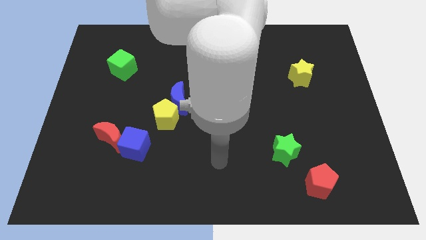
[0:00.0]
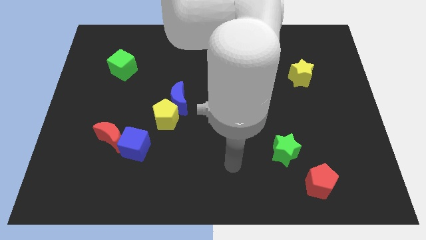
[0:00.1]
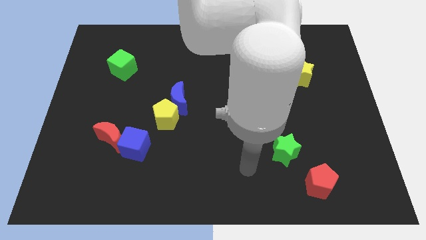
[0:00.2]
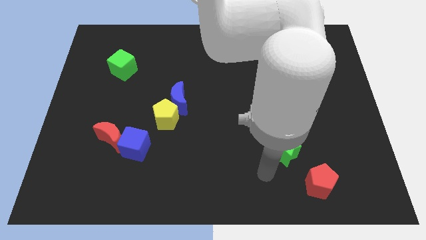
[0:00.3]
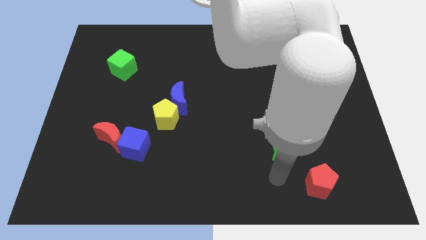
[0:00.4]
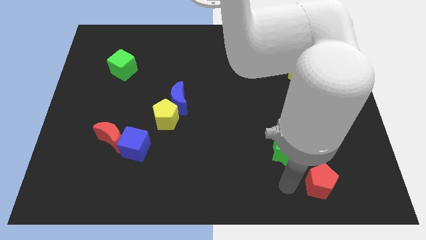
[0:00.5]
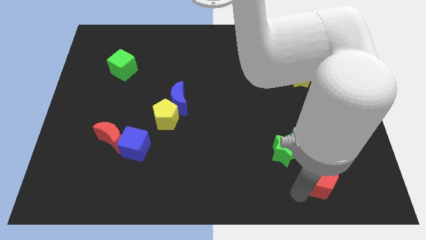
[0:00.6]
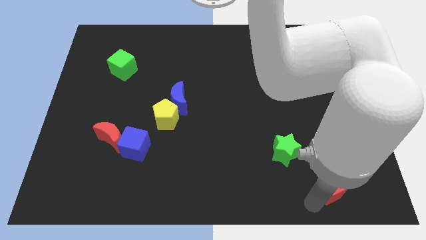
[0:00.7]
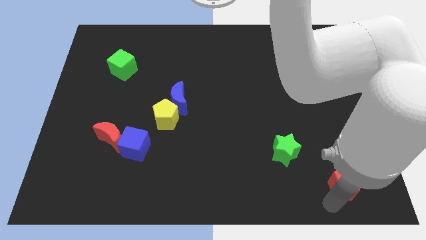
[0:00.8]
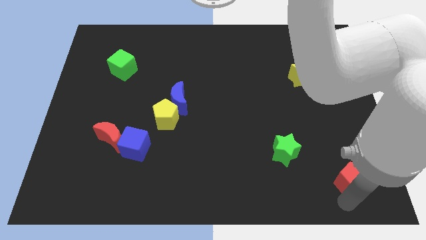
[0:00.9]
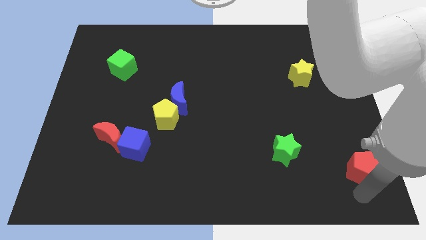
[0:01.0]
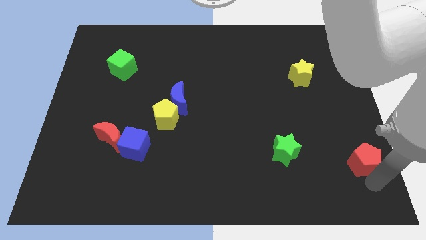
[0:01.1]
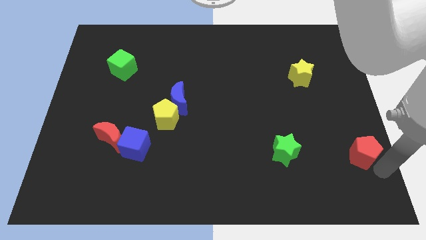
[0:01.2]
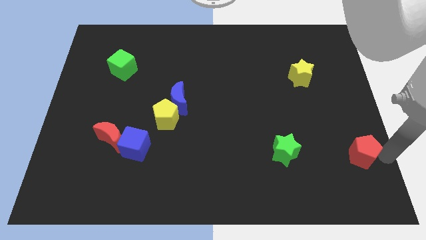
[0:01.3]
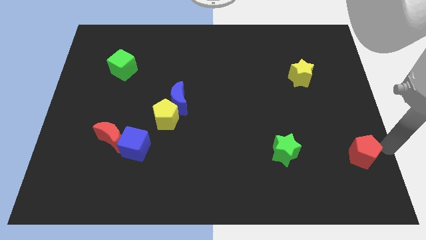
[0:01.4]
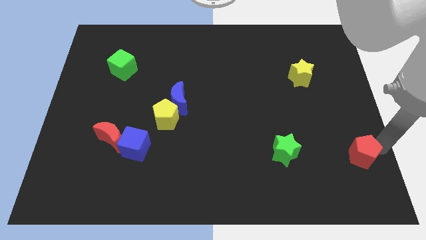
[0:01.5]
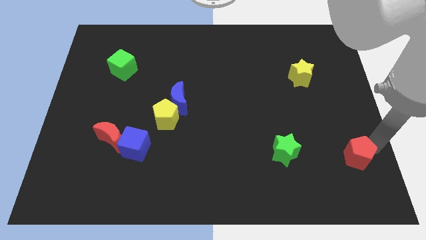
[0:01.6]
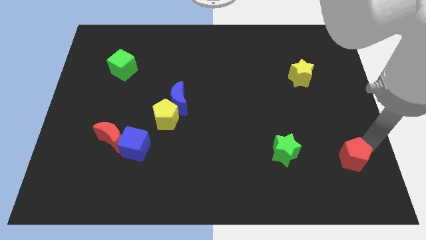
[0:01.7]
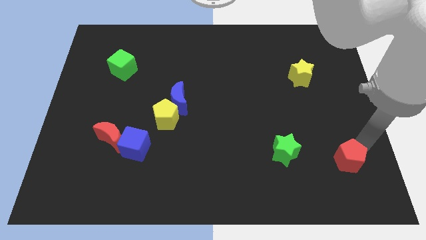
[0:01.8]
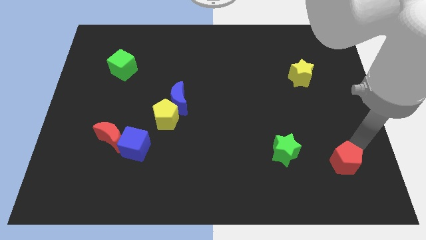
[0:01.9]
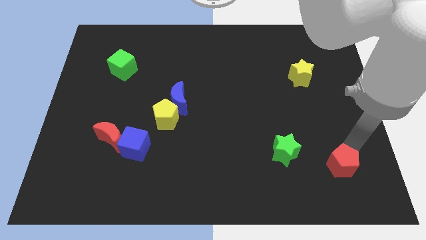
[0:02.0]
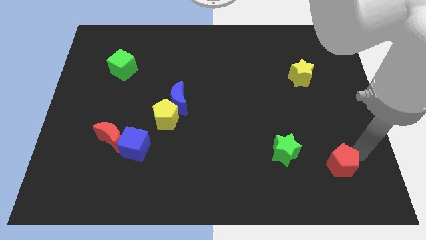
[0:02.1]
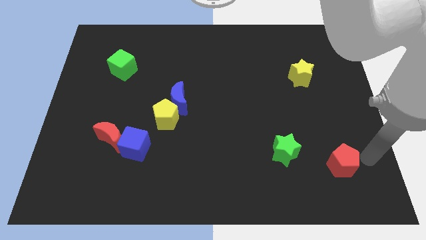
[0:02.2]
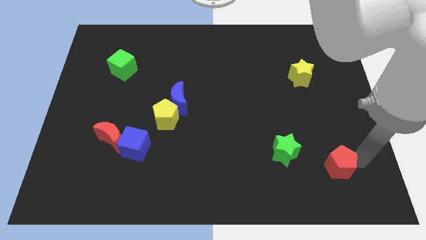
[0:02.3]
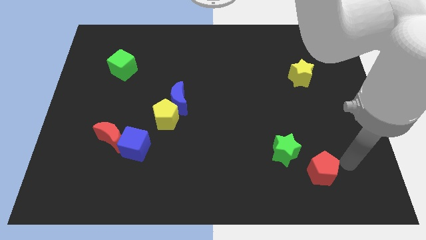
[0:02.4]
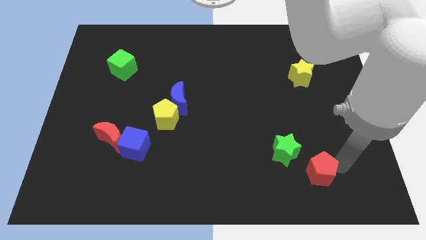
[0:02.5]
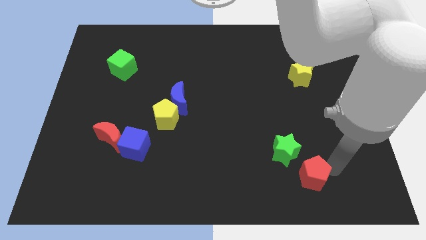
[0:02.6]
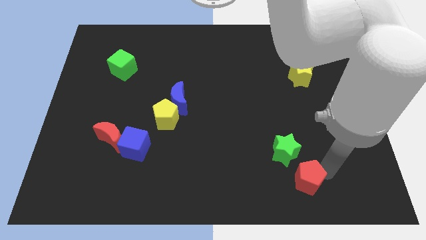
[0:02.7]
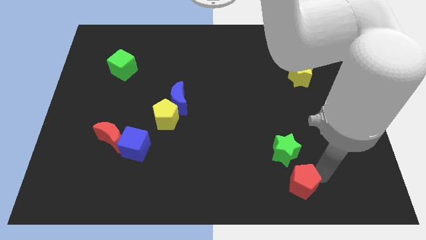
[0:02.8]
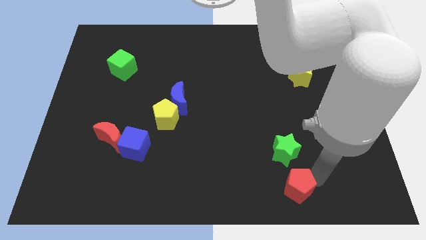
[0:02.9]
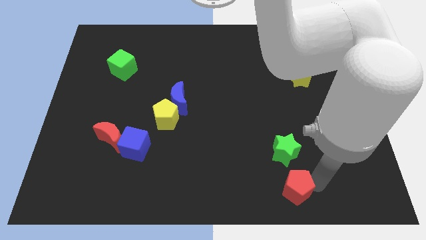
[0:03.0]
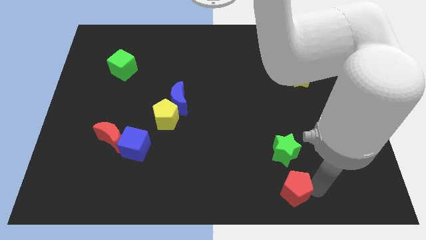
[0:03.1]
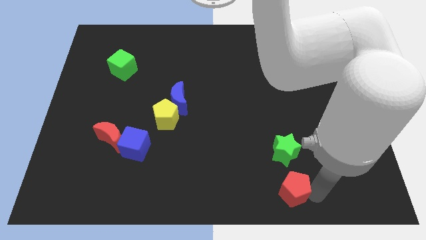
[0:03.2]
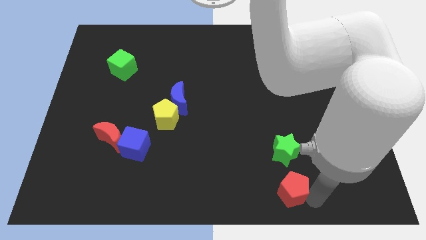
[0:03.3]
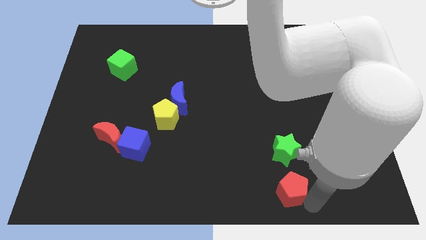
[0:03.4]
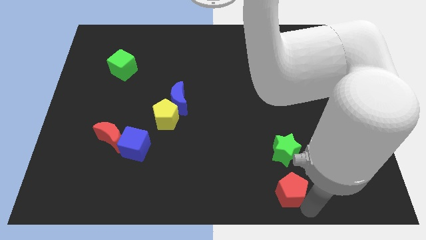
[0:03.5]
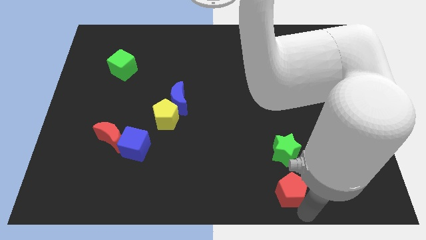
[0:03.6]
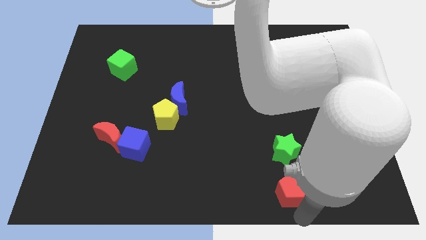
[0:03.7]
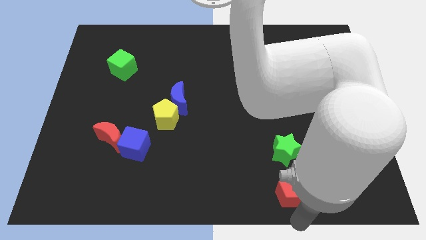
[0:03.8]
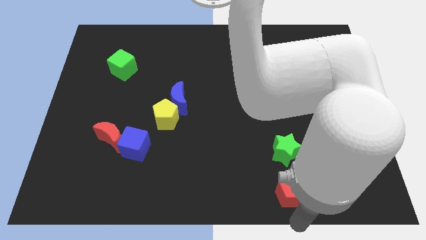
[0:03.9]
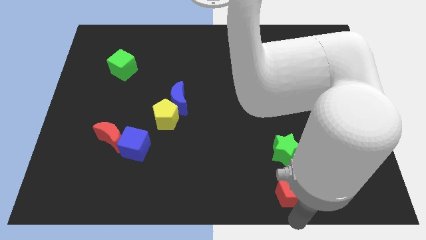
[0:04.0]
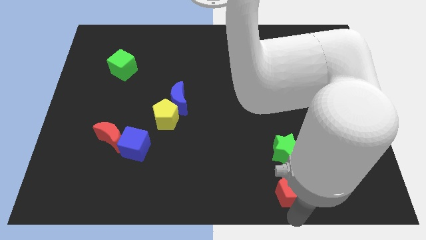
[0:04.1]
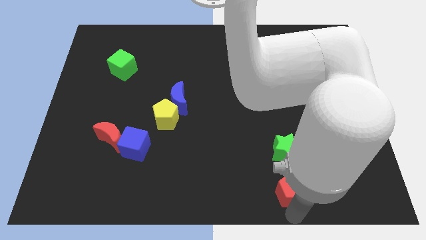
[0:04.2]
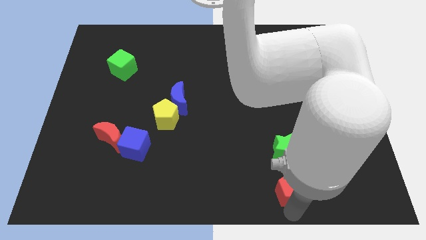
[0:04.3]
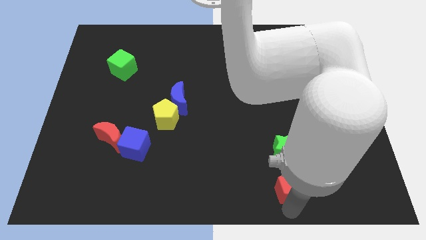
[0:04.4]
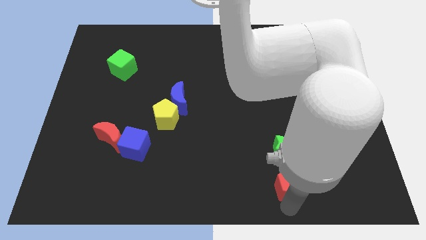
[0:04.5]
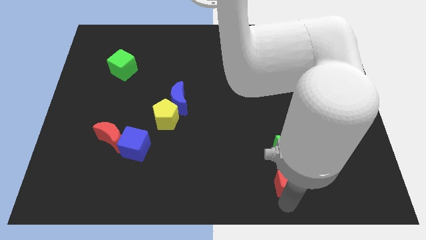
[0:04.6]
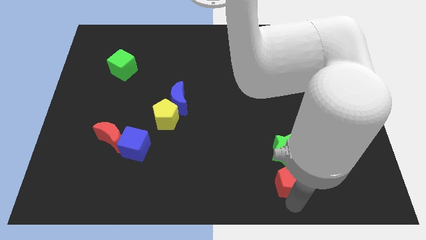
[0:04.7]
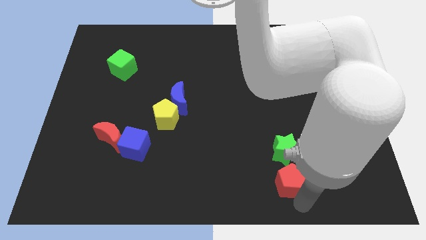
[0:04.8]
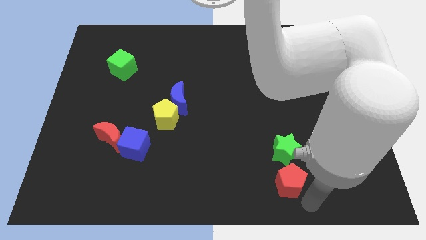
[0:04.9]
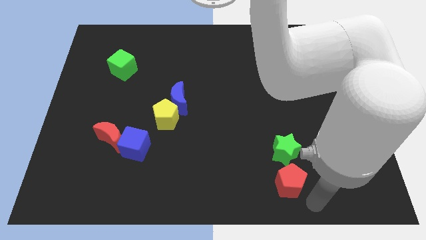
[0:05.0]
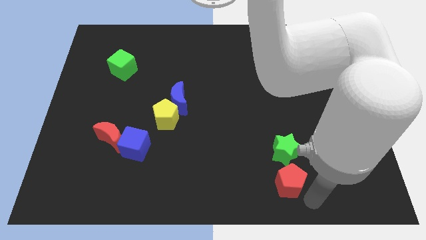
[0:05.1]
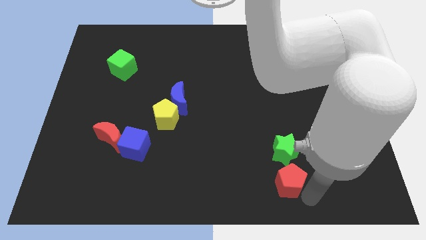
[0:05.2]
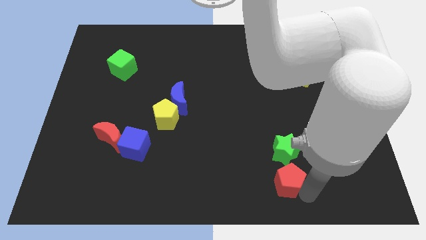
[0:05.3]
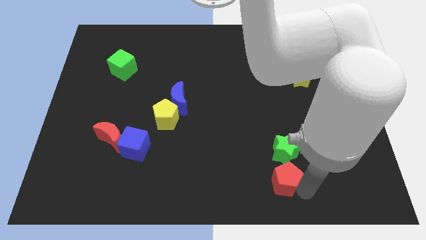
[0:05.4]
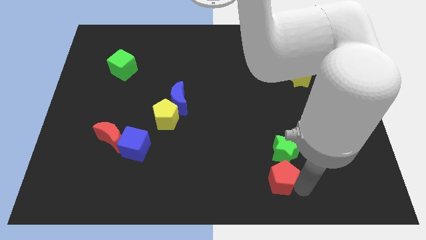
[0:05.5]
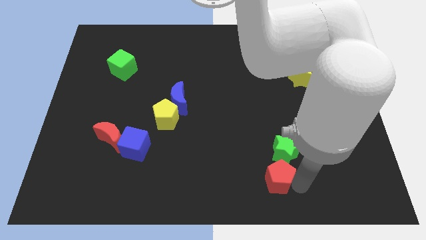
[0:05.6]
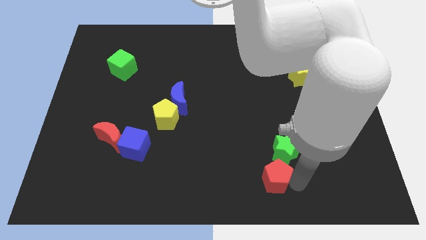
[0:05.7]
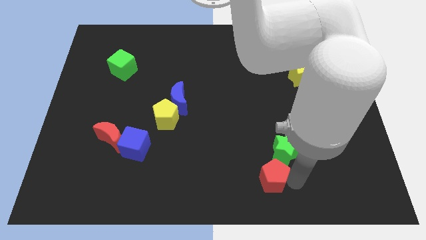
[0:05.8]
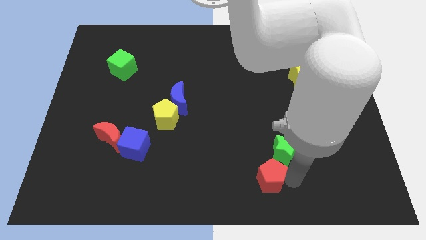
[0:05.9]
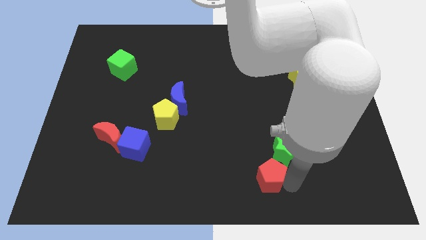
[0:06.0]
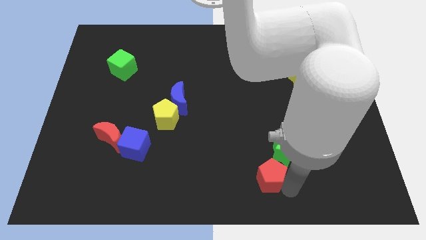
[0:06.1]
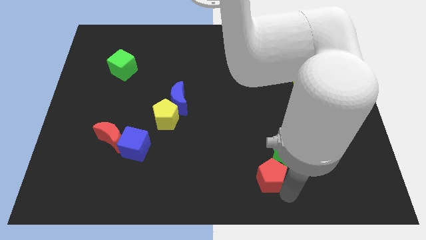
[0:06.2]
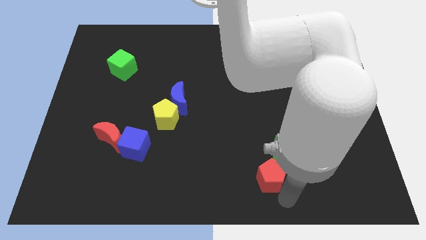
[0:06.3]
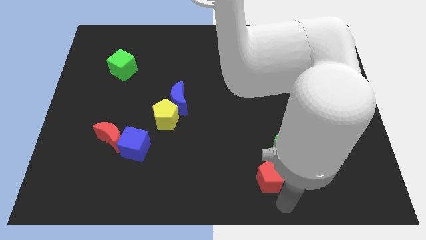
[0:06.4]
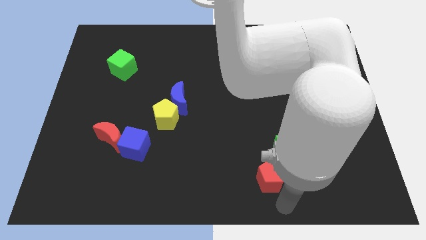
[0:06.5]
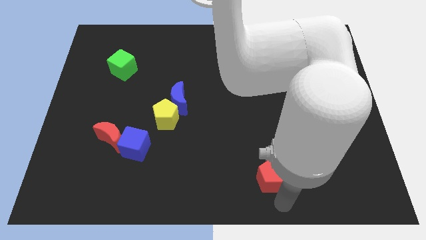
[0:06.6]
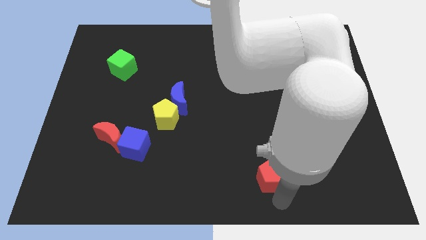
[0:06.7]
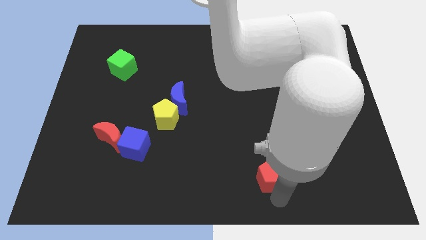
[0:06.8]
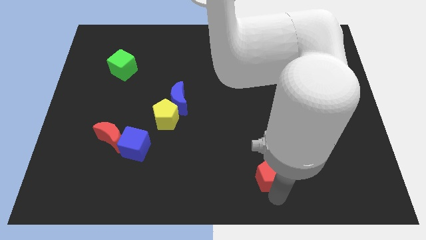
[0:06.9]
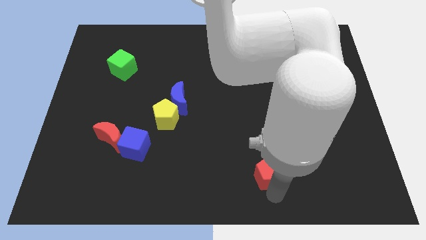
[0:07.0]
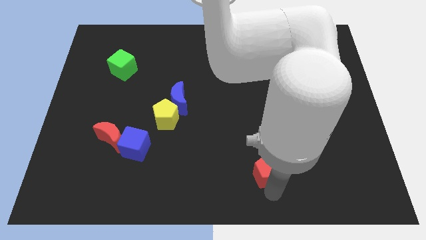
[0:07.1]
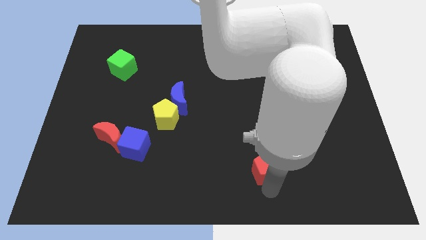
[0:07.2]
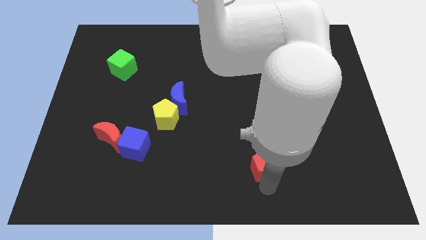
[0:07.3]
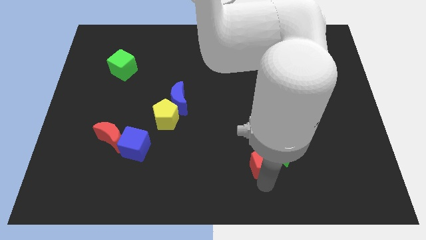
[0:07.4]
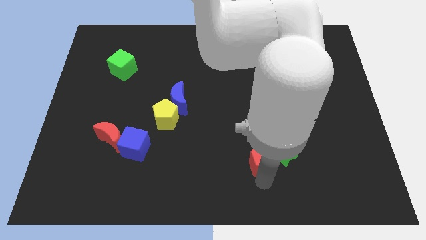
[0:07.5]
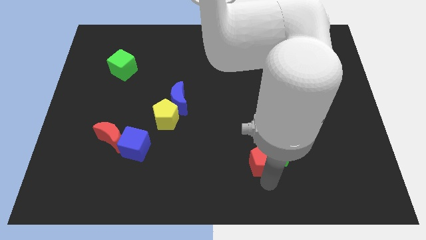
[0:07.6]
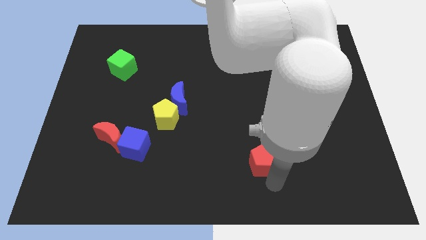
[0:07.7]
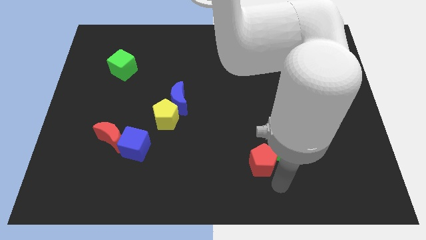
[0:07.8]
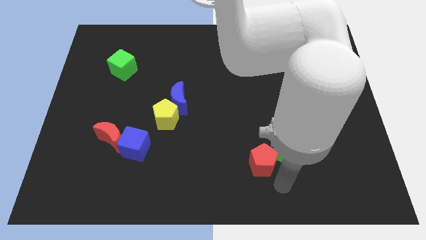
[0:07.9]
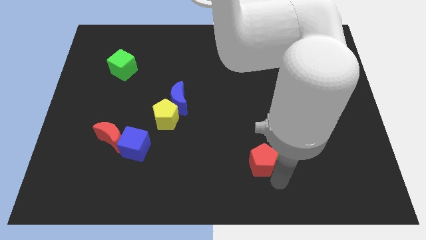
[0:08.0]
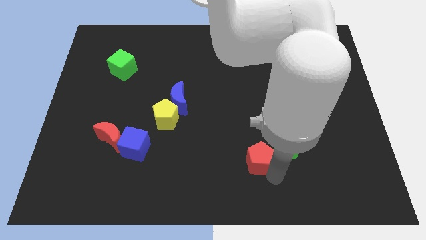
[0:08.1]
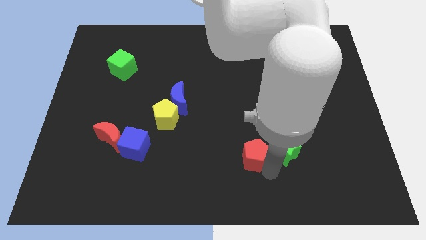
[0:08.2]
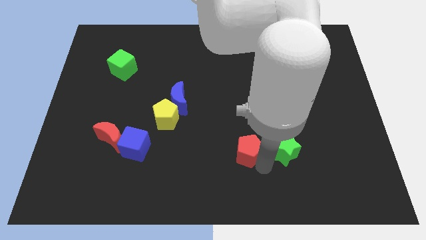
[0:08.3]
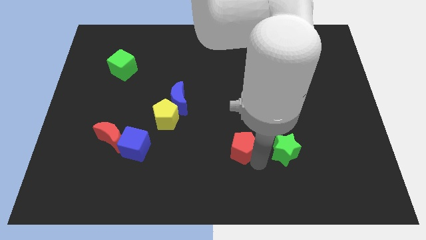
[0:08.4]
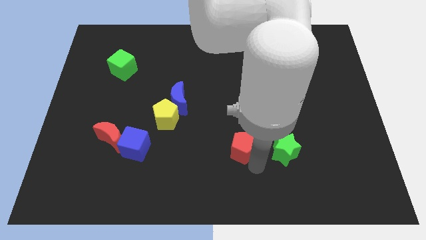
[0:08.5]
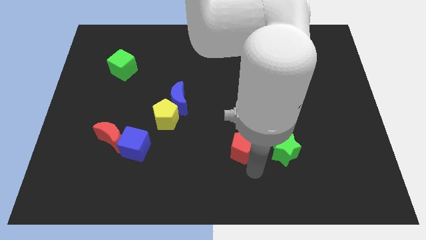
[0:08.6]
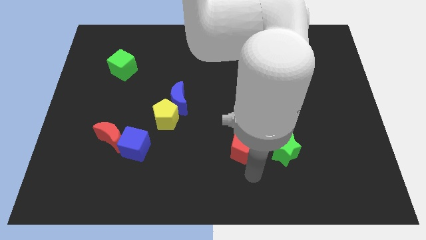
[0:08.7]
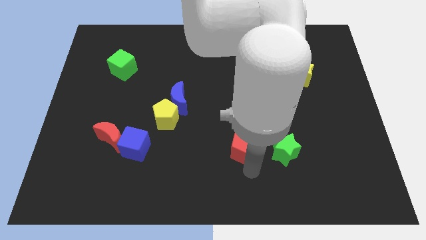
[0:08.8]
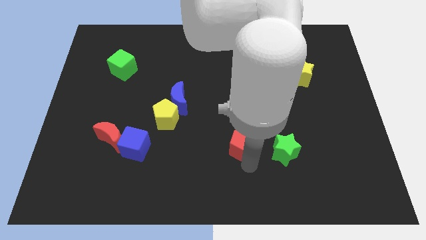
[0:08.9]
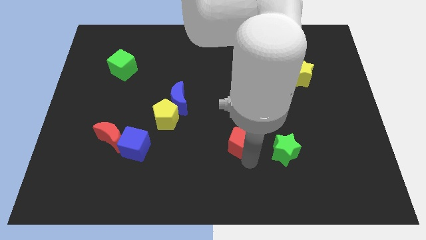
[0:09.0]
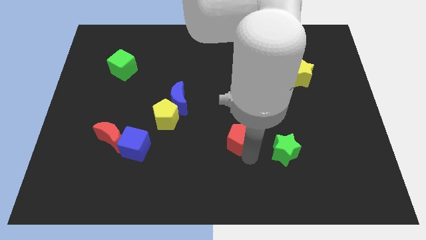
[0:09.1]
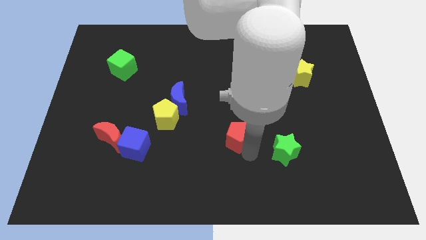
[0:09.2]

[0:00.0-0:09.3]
put the red pentagon to the center
